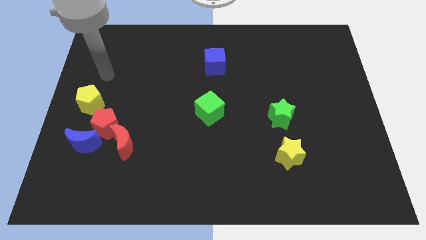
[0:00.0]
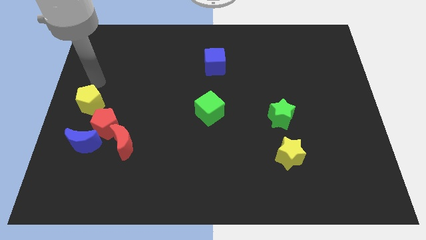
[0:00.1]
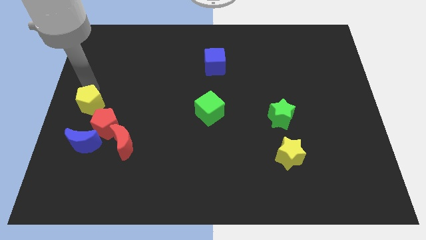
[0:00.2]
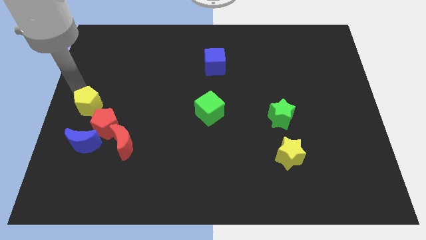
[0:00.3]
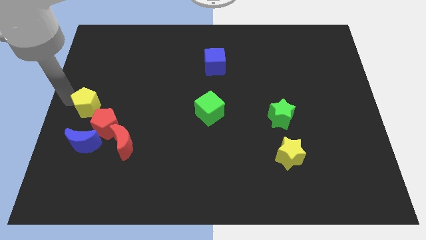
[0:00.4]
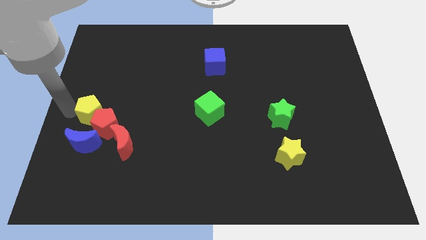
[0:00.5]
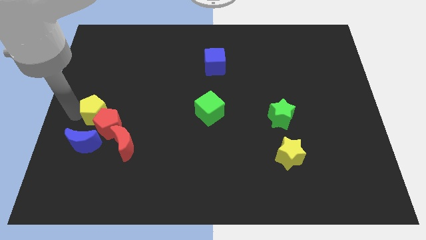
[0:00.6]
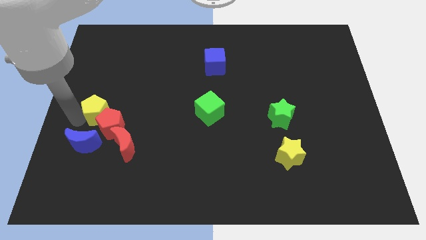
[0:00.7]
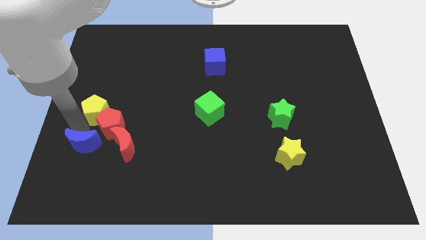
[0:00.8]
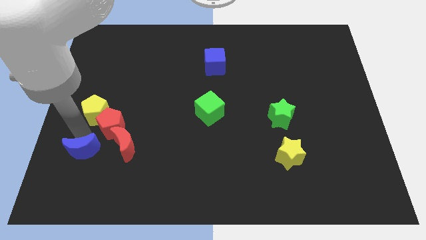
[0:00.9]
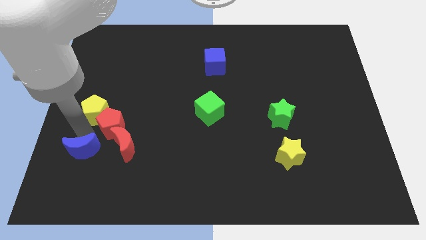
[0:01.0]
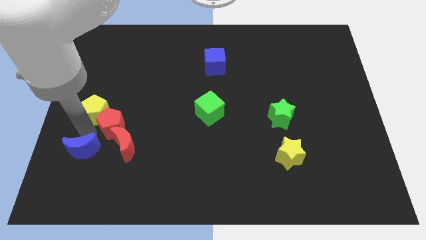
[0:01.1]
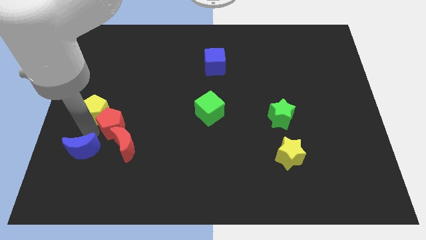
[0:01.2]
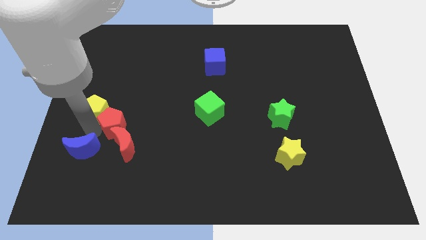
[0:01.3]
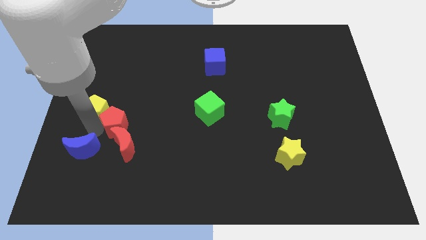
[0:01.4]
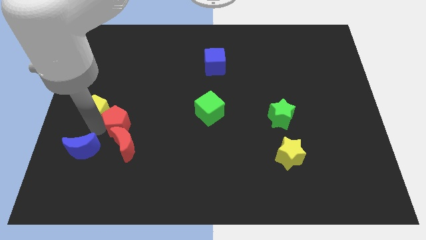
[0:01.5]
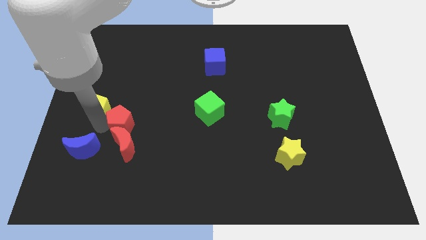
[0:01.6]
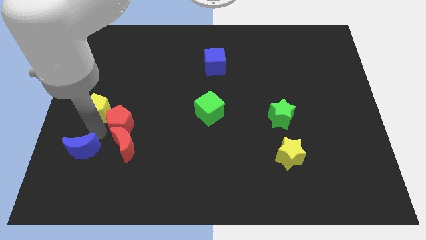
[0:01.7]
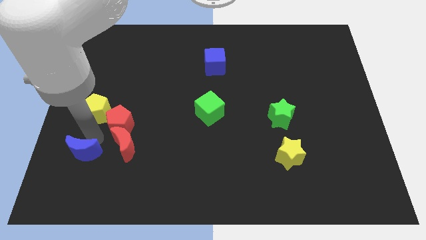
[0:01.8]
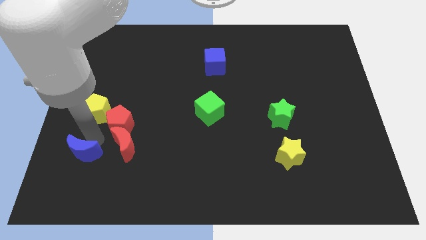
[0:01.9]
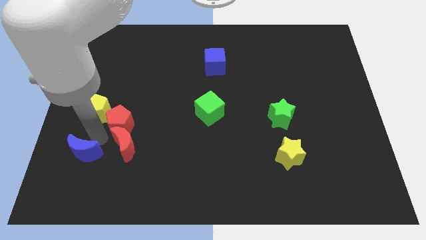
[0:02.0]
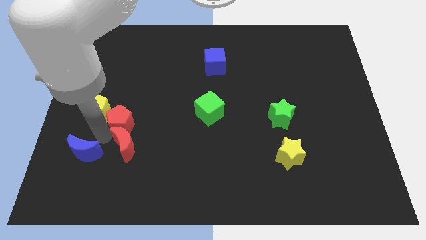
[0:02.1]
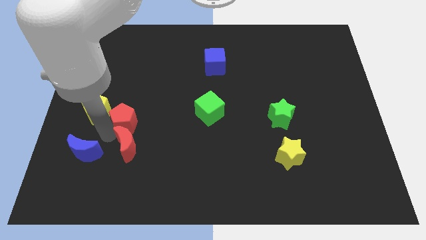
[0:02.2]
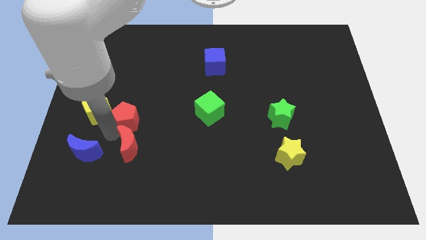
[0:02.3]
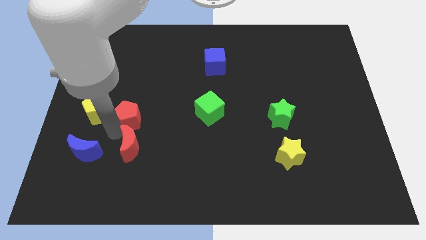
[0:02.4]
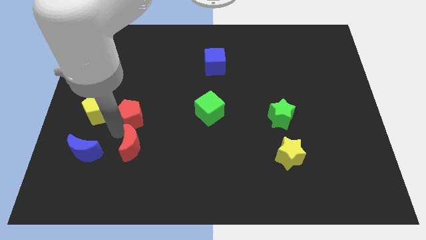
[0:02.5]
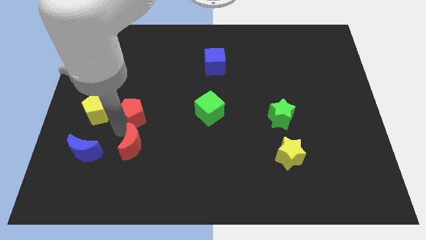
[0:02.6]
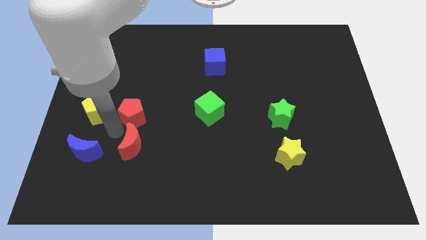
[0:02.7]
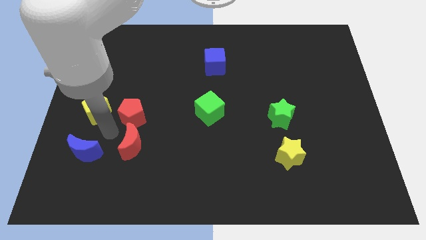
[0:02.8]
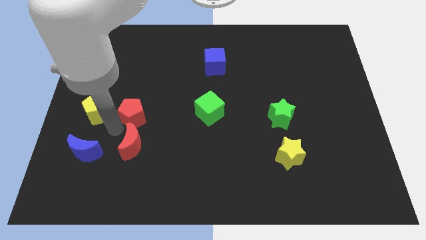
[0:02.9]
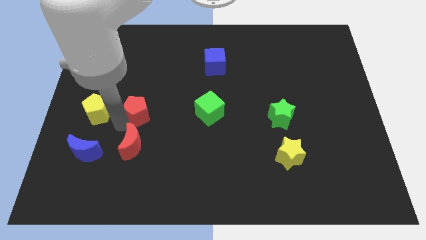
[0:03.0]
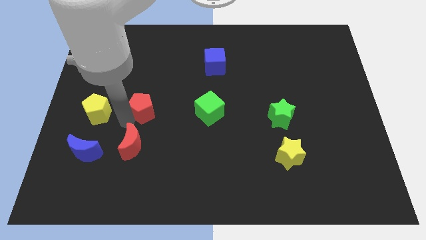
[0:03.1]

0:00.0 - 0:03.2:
pull the red pentagon apart from the clump

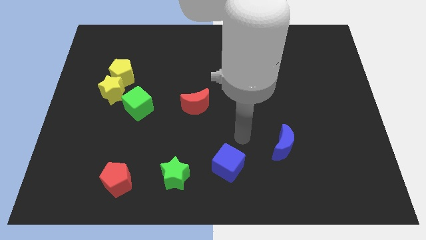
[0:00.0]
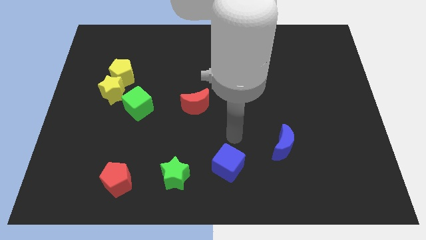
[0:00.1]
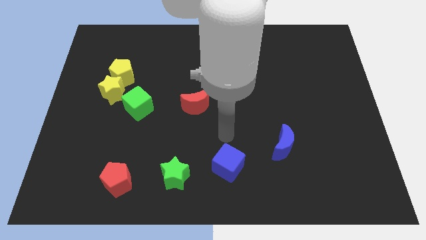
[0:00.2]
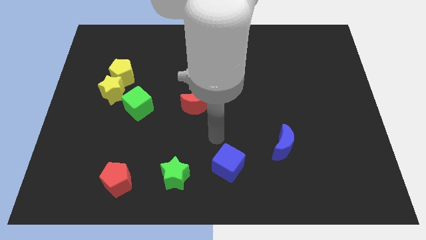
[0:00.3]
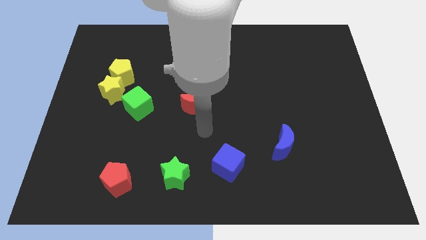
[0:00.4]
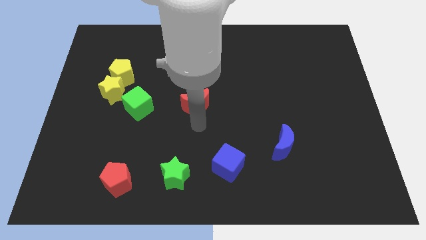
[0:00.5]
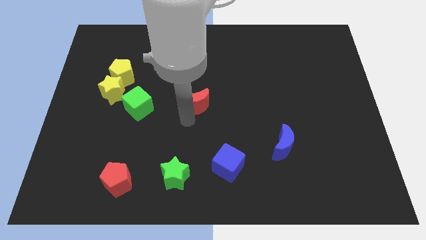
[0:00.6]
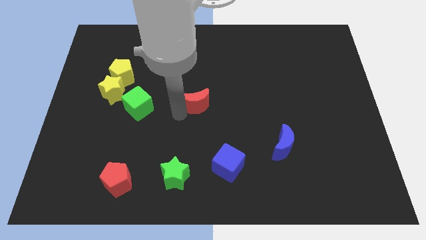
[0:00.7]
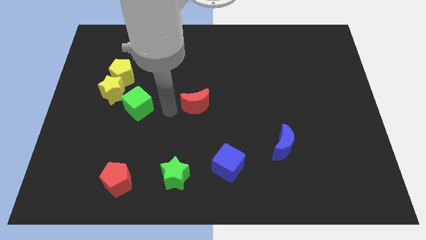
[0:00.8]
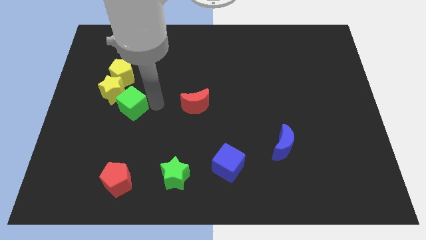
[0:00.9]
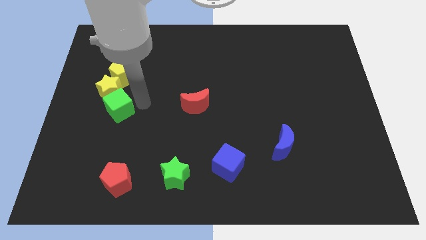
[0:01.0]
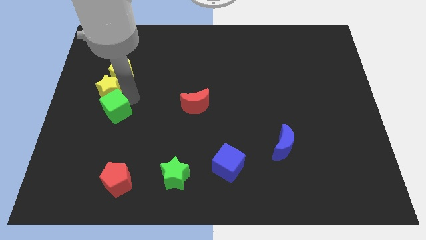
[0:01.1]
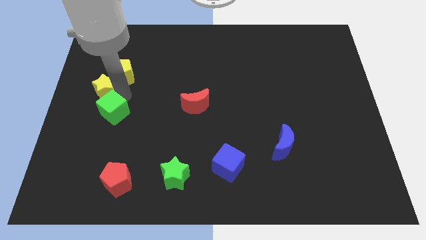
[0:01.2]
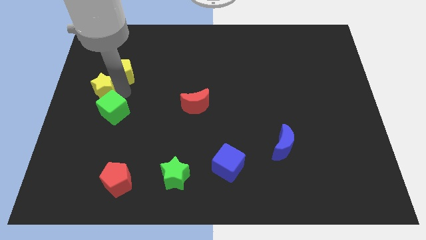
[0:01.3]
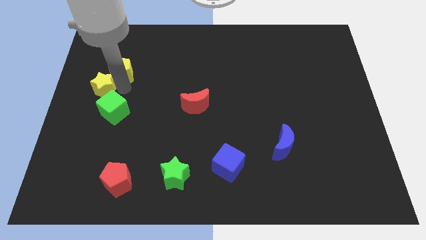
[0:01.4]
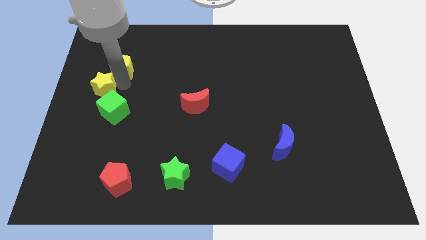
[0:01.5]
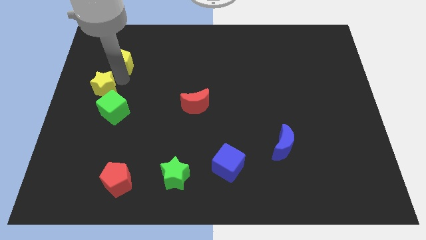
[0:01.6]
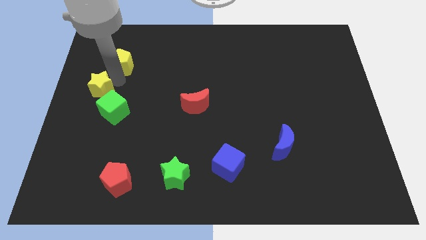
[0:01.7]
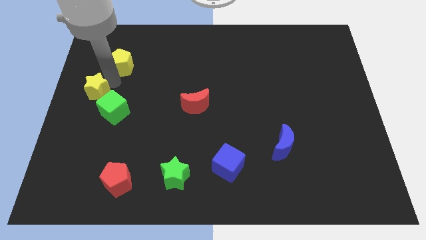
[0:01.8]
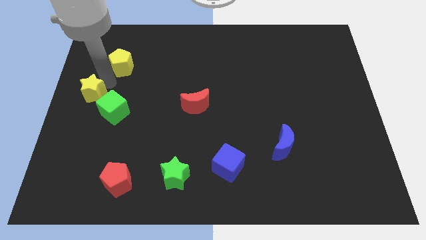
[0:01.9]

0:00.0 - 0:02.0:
pull the yellow pentagon apart from the yellow star

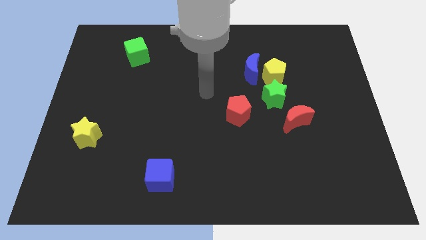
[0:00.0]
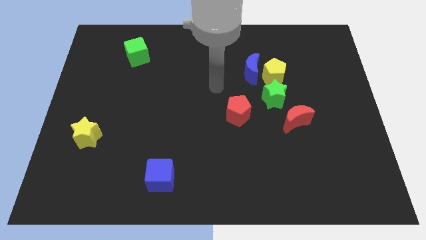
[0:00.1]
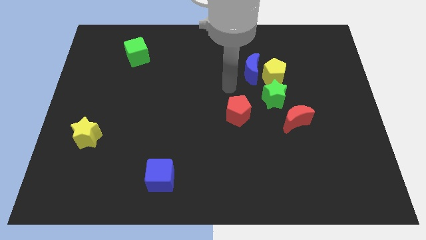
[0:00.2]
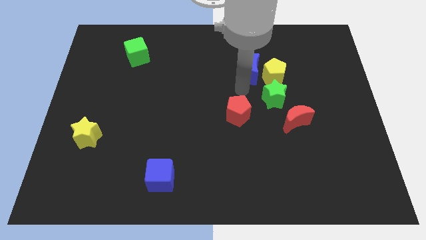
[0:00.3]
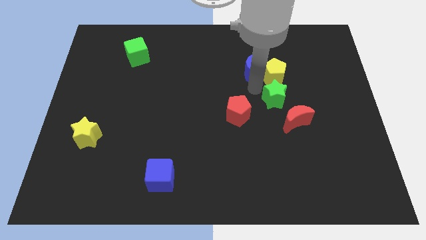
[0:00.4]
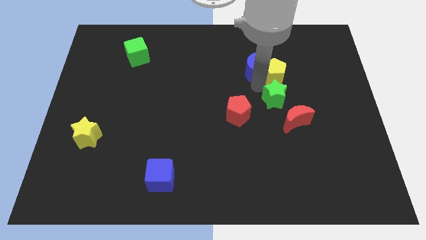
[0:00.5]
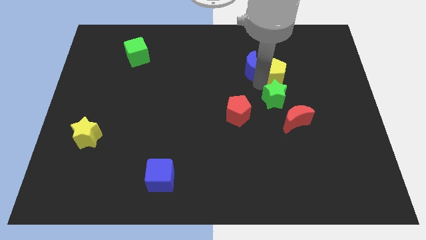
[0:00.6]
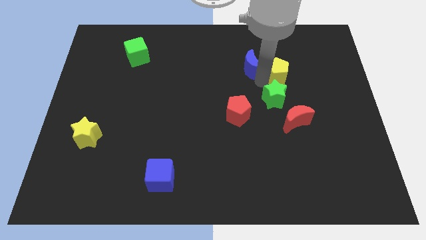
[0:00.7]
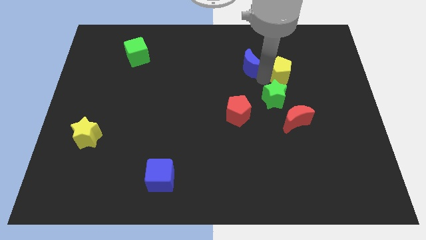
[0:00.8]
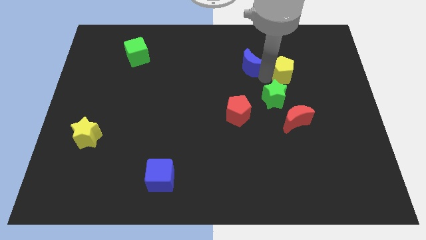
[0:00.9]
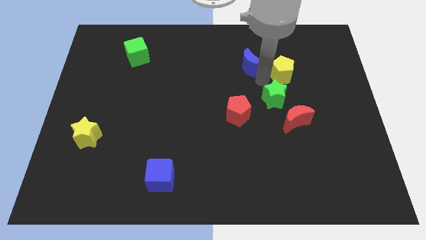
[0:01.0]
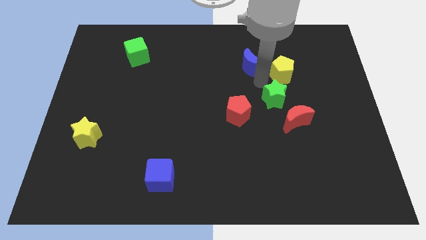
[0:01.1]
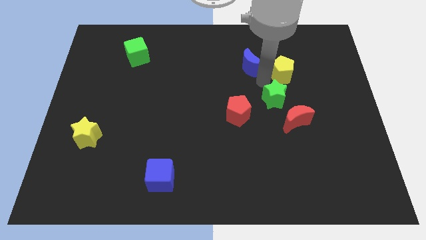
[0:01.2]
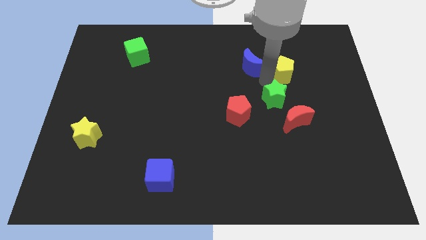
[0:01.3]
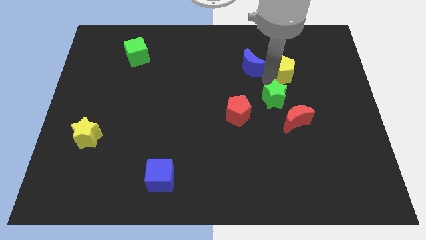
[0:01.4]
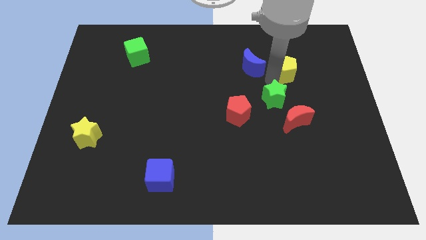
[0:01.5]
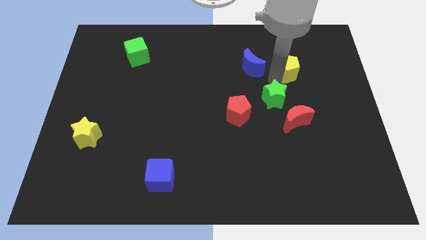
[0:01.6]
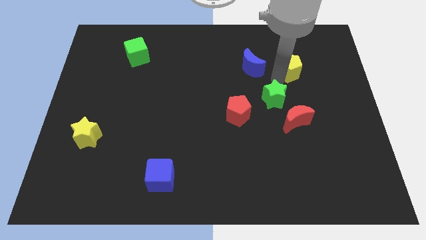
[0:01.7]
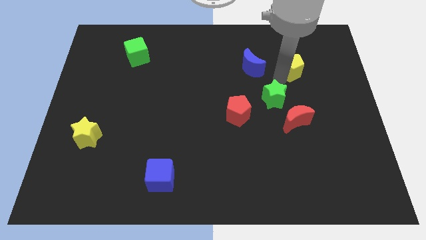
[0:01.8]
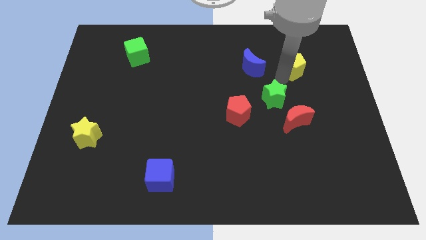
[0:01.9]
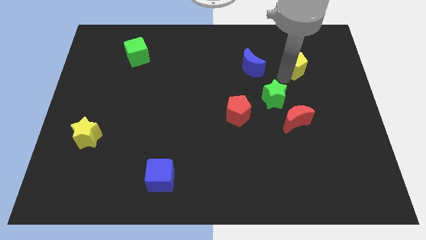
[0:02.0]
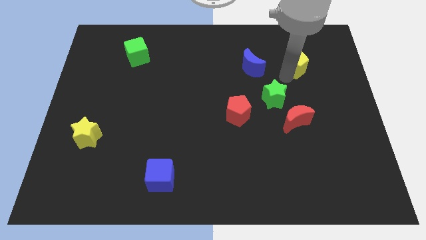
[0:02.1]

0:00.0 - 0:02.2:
pull the yellow pentagon apart from the blue moon and green star

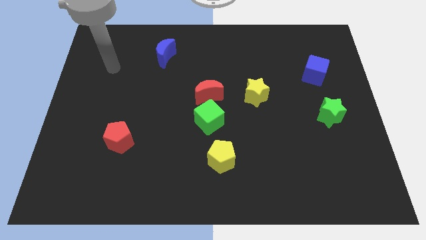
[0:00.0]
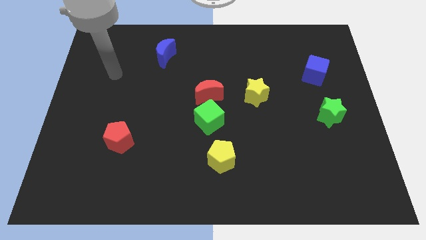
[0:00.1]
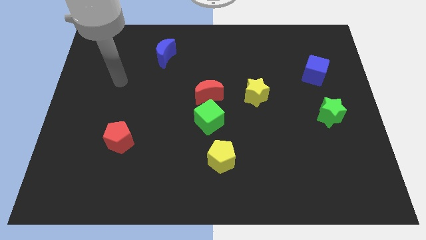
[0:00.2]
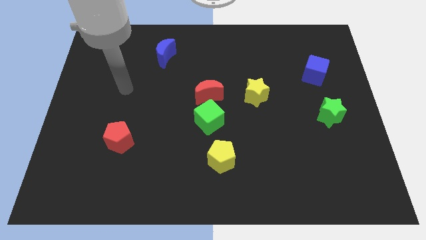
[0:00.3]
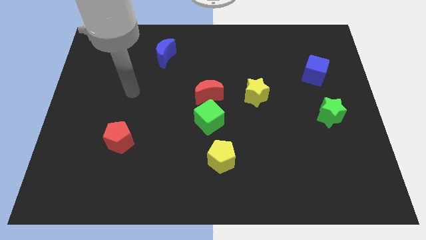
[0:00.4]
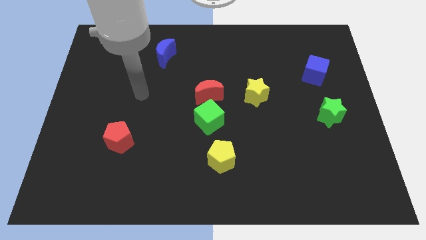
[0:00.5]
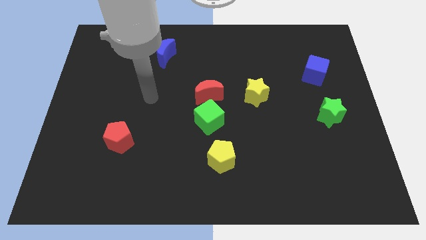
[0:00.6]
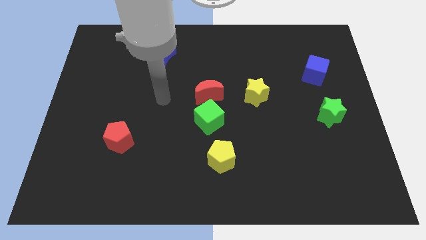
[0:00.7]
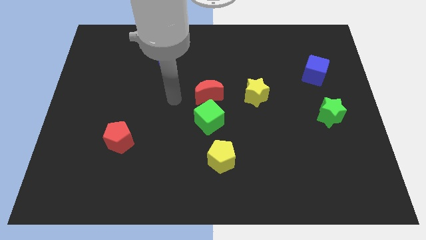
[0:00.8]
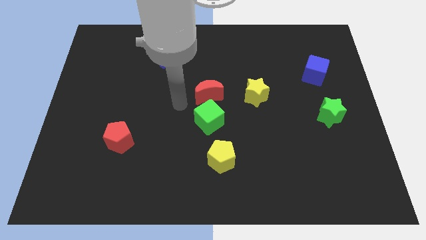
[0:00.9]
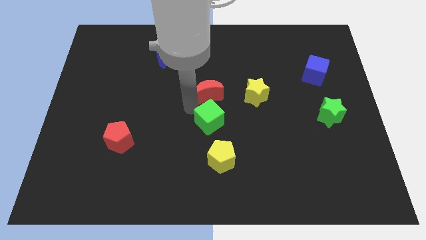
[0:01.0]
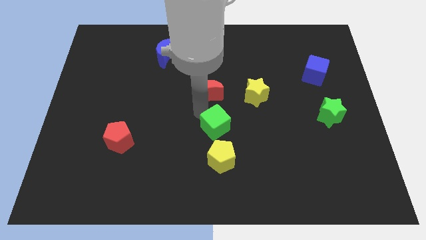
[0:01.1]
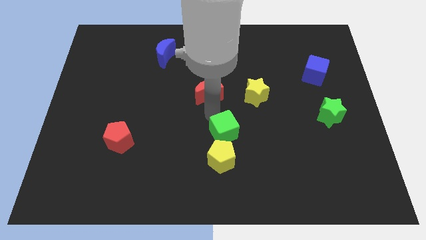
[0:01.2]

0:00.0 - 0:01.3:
move the red moon away from the green cube

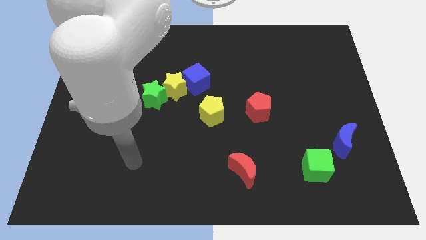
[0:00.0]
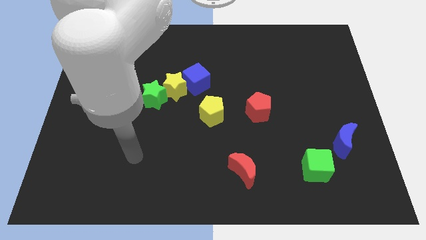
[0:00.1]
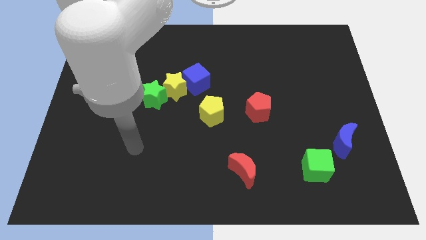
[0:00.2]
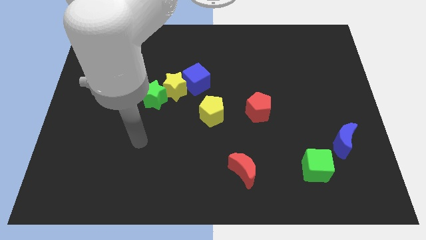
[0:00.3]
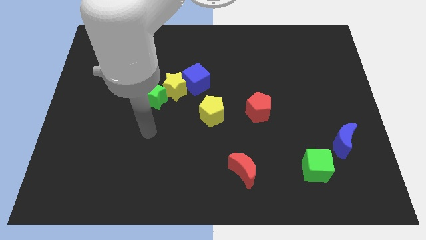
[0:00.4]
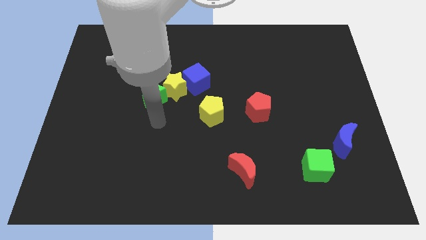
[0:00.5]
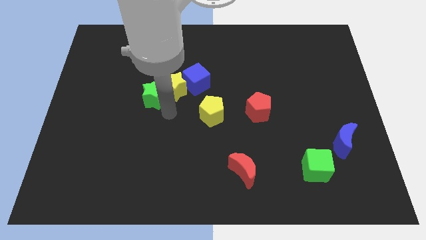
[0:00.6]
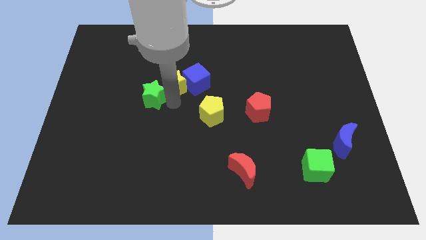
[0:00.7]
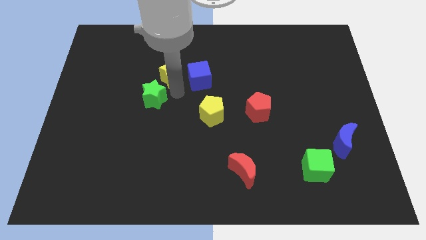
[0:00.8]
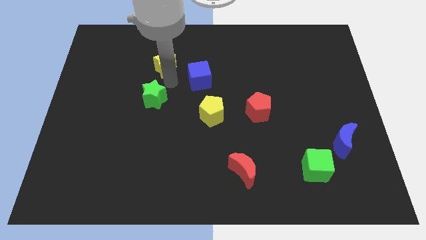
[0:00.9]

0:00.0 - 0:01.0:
separate the green star from the yellow star
